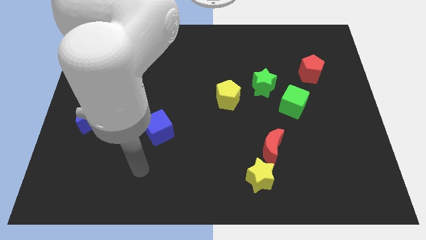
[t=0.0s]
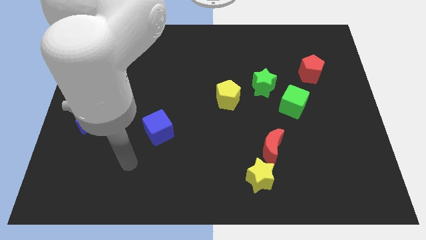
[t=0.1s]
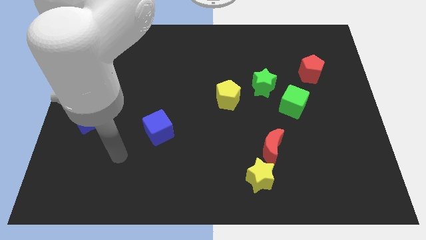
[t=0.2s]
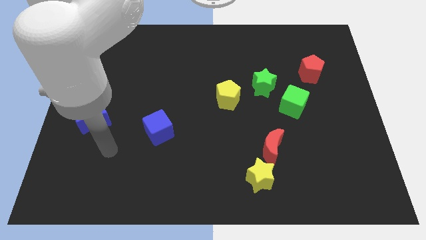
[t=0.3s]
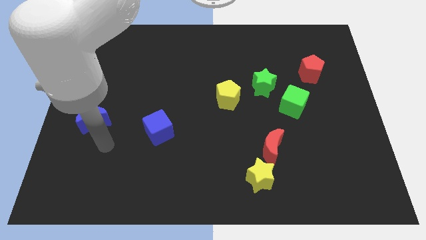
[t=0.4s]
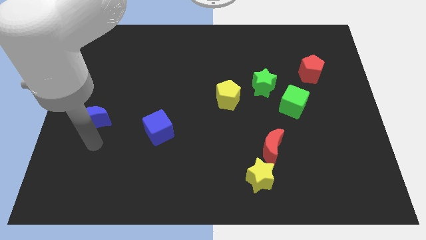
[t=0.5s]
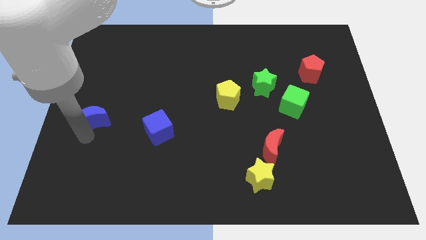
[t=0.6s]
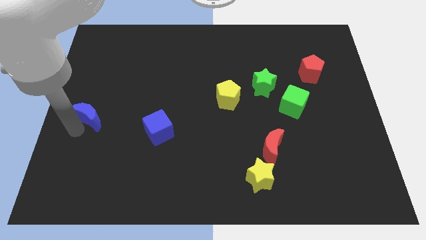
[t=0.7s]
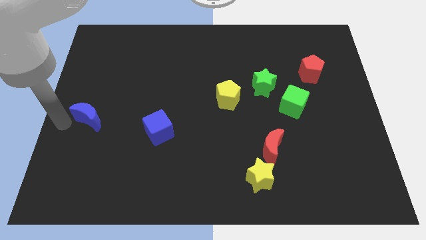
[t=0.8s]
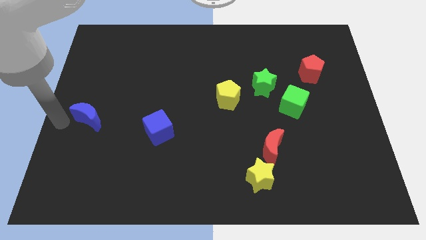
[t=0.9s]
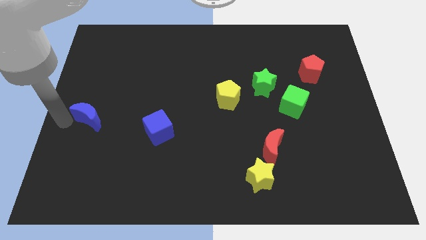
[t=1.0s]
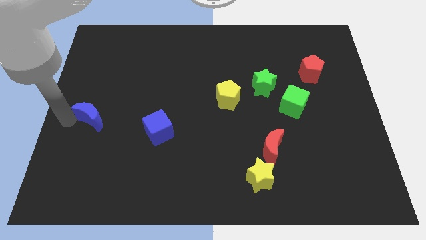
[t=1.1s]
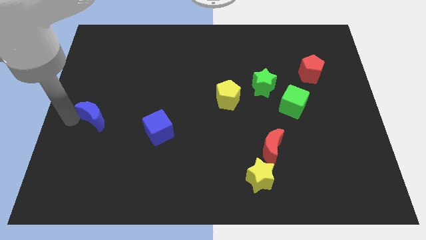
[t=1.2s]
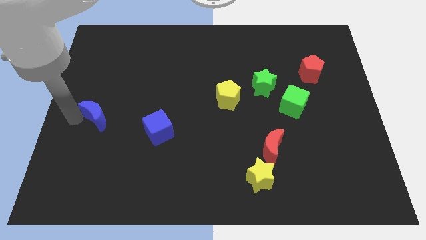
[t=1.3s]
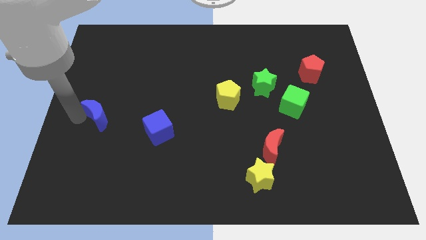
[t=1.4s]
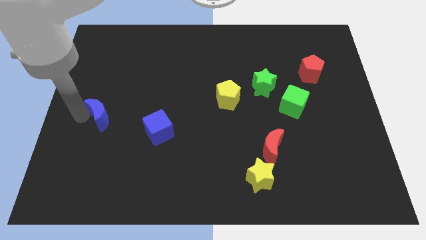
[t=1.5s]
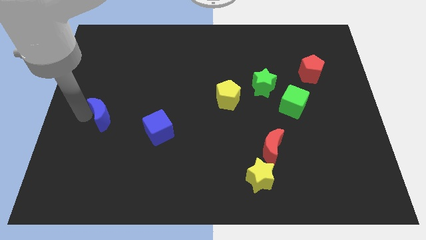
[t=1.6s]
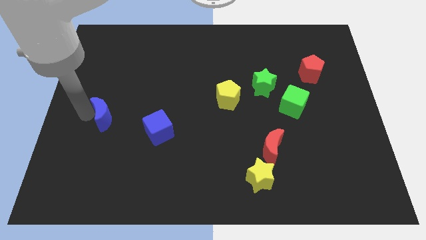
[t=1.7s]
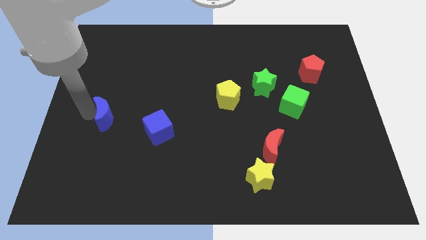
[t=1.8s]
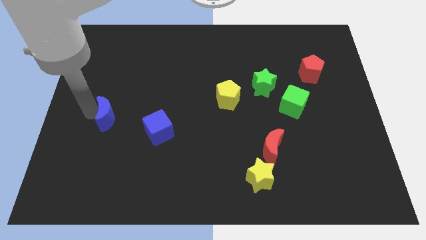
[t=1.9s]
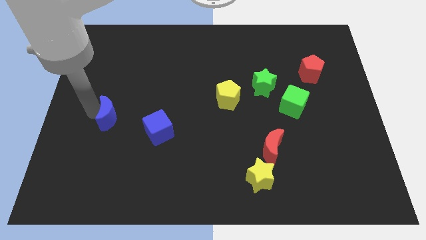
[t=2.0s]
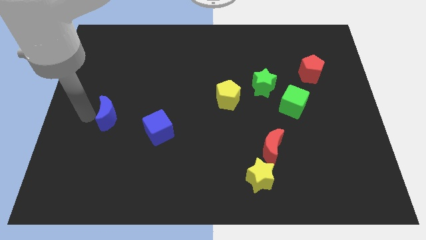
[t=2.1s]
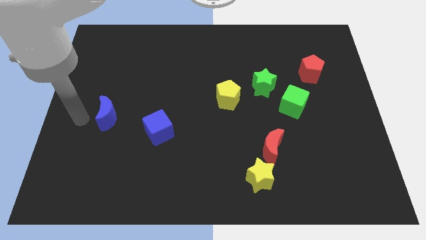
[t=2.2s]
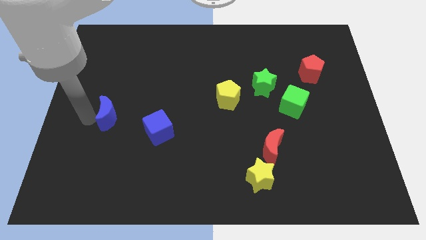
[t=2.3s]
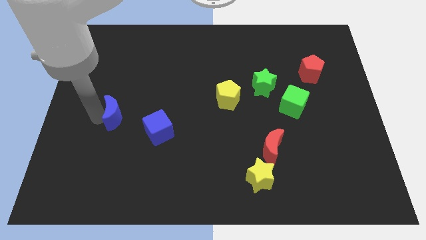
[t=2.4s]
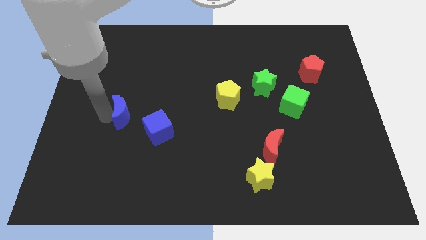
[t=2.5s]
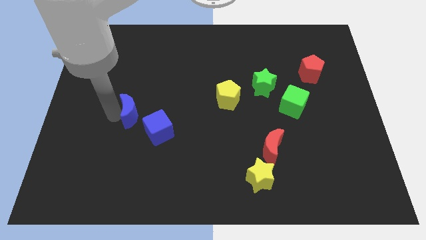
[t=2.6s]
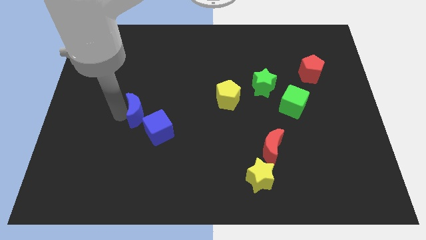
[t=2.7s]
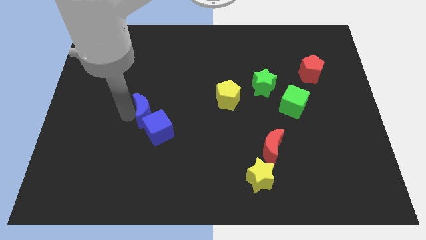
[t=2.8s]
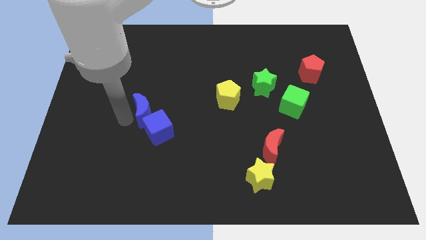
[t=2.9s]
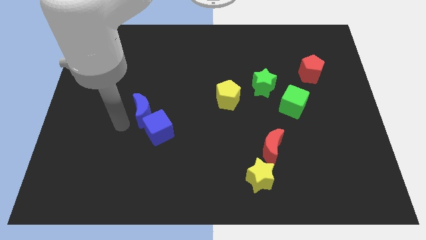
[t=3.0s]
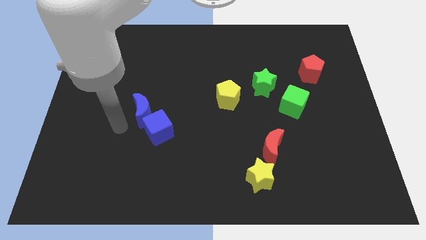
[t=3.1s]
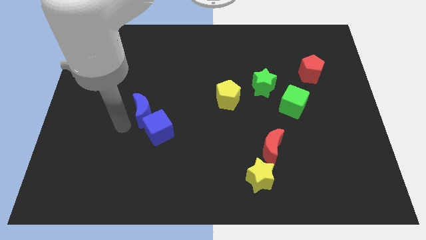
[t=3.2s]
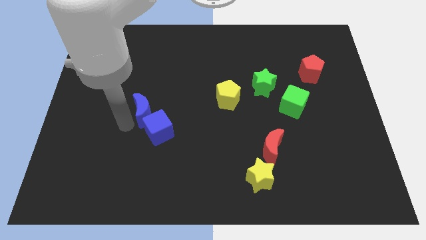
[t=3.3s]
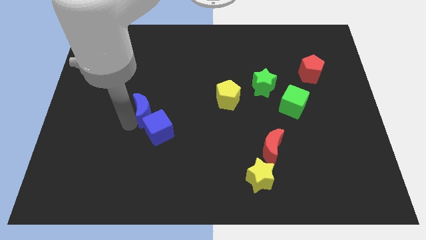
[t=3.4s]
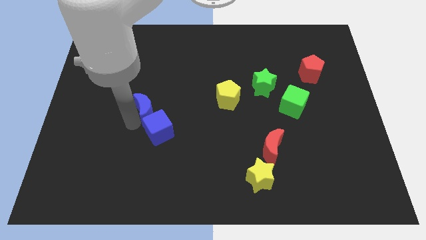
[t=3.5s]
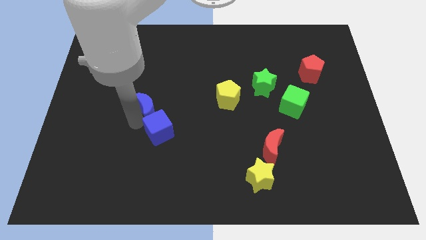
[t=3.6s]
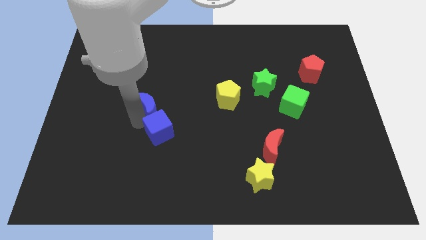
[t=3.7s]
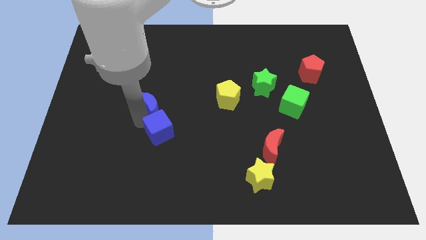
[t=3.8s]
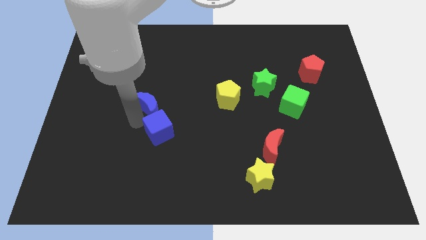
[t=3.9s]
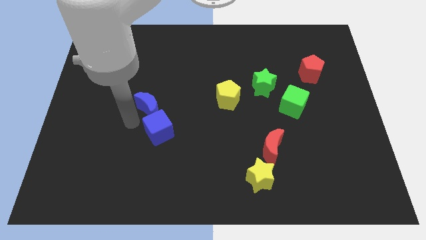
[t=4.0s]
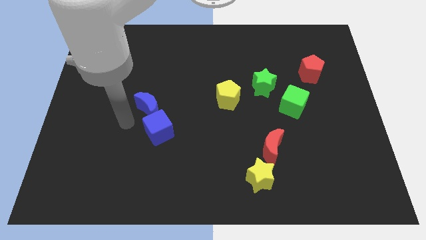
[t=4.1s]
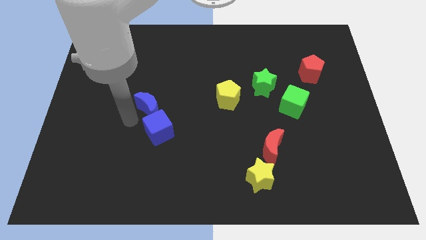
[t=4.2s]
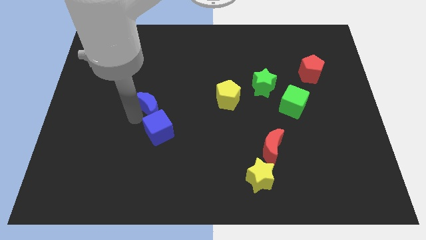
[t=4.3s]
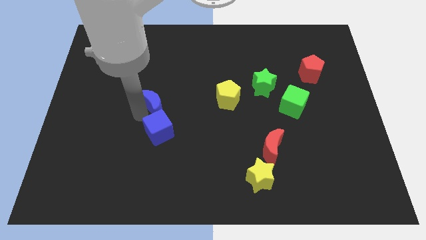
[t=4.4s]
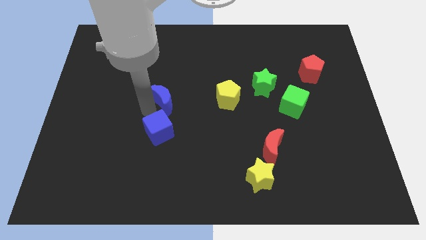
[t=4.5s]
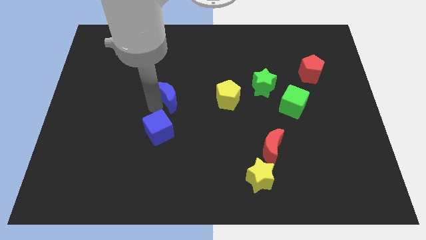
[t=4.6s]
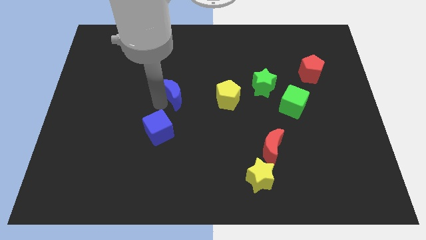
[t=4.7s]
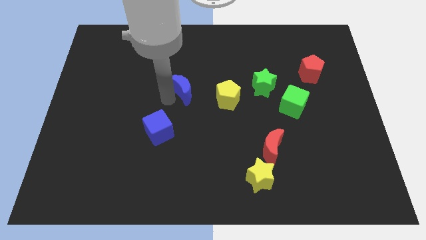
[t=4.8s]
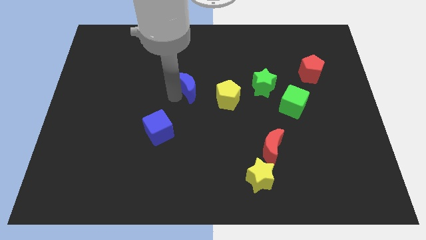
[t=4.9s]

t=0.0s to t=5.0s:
move the blue moon to the top left of the yellow pentagon

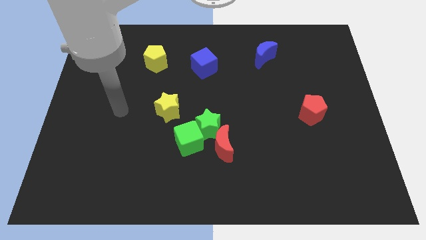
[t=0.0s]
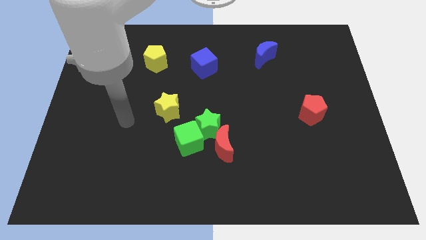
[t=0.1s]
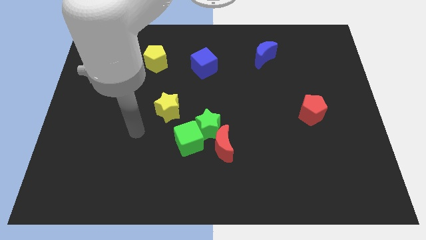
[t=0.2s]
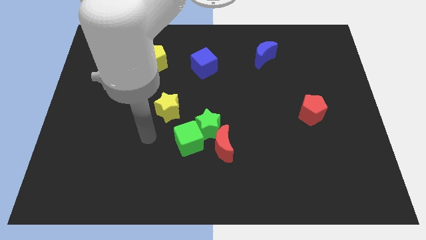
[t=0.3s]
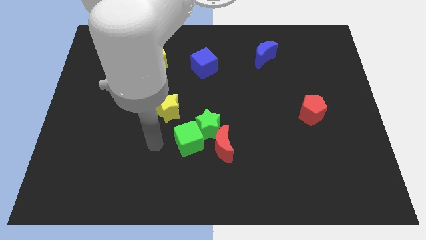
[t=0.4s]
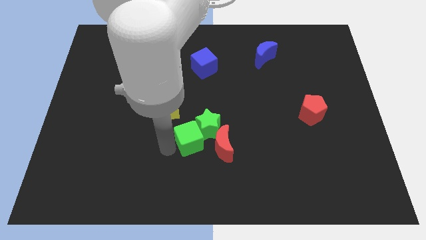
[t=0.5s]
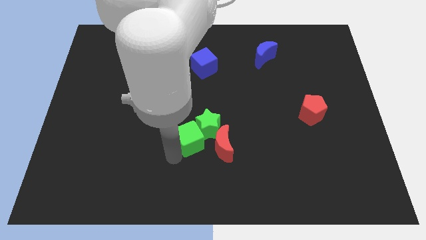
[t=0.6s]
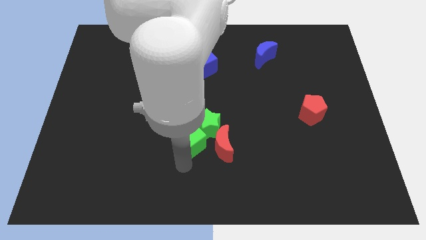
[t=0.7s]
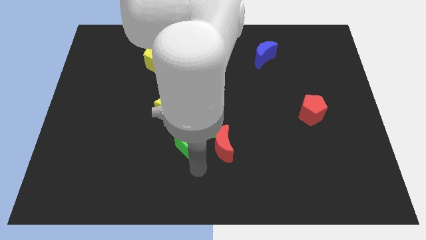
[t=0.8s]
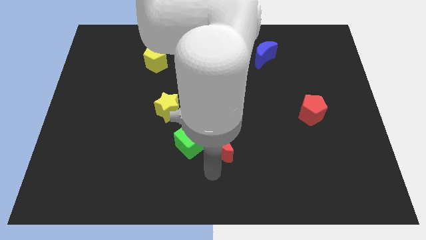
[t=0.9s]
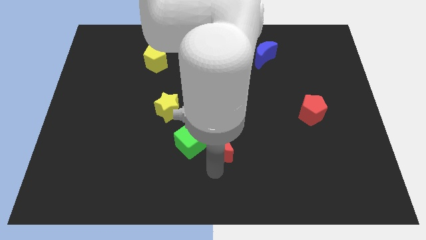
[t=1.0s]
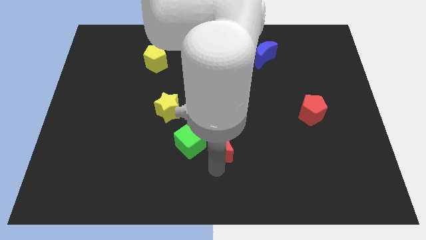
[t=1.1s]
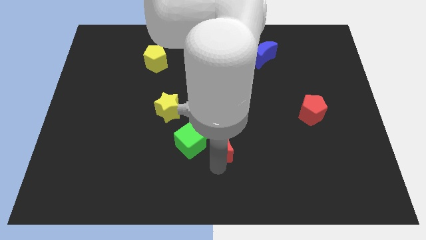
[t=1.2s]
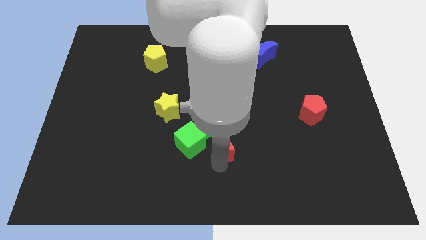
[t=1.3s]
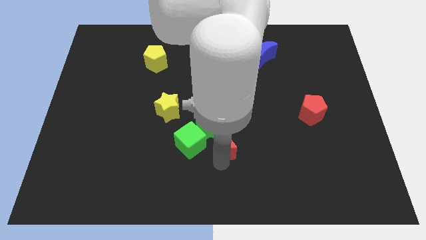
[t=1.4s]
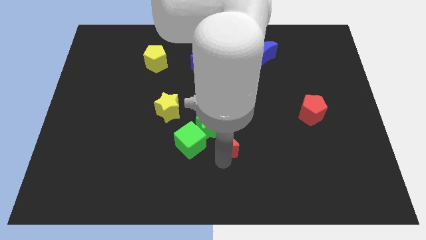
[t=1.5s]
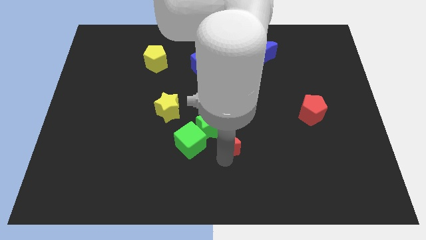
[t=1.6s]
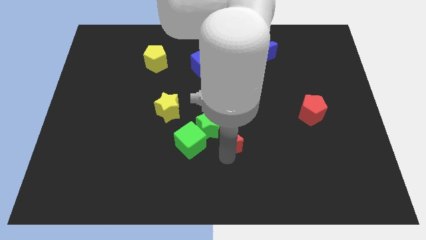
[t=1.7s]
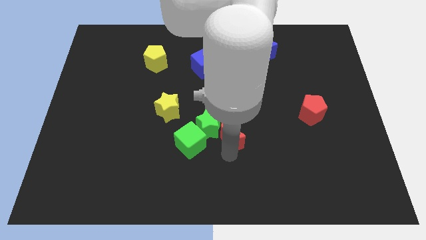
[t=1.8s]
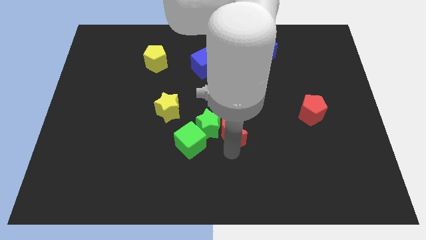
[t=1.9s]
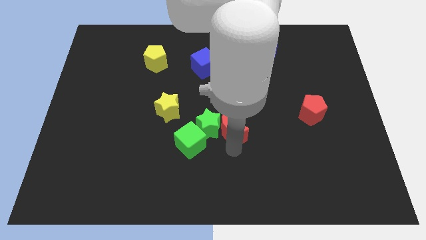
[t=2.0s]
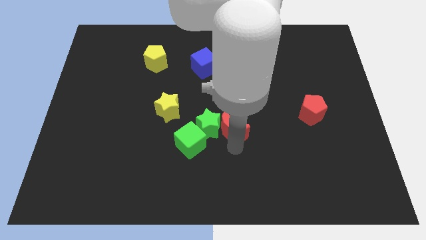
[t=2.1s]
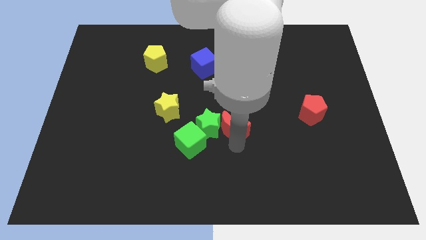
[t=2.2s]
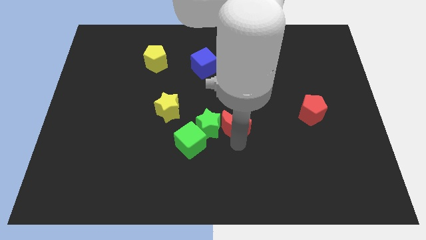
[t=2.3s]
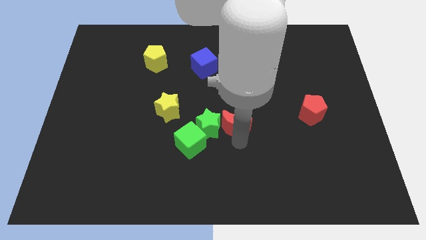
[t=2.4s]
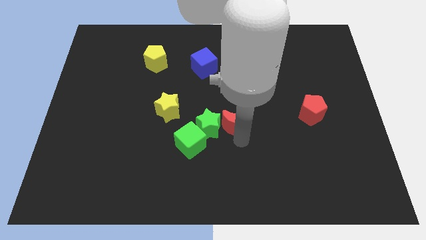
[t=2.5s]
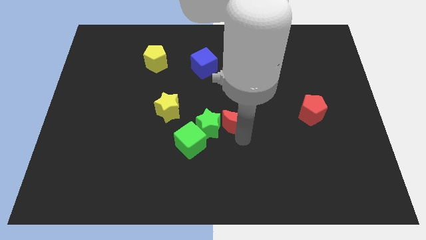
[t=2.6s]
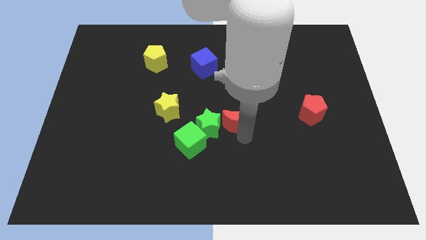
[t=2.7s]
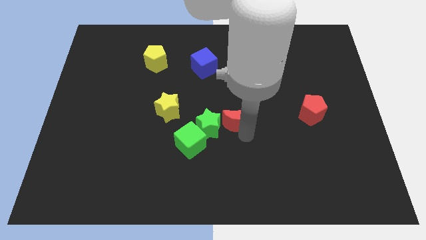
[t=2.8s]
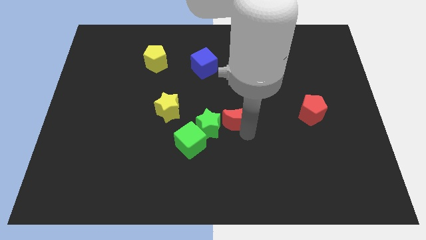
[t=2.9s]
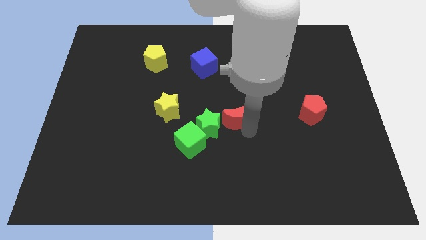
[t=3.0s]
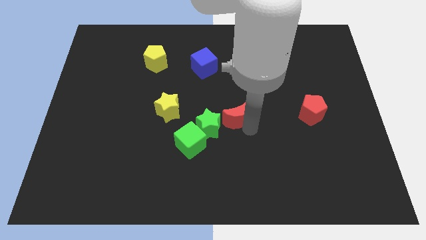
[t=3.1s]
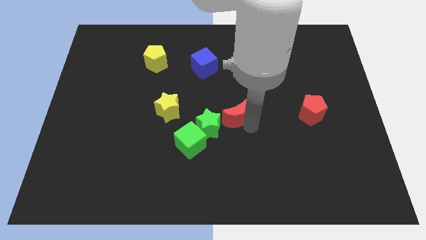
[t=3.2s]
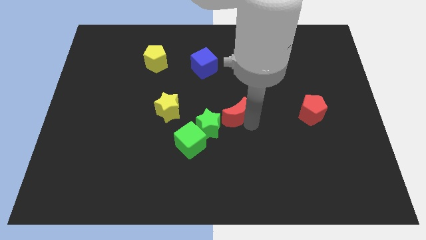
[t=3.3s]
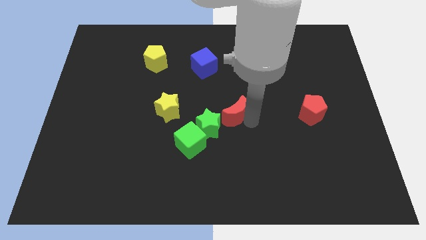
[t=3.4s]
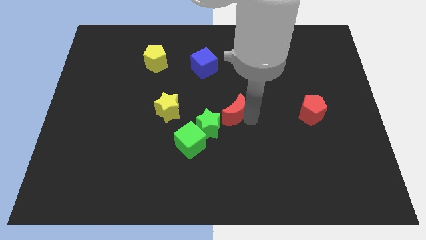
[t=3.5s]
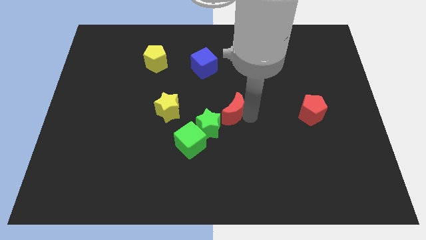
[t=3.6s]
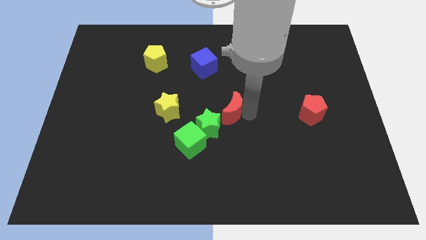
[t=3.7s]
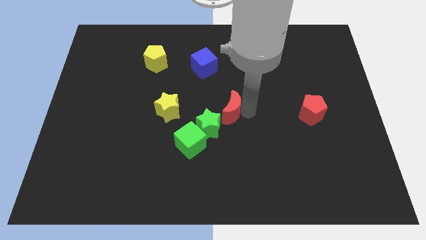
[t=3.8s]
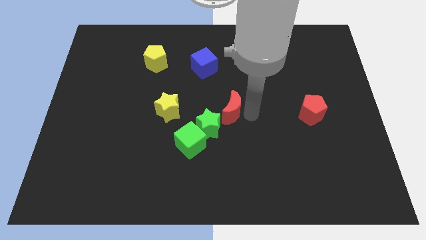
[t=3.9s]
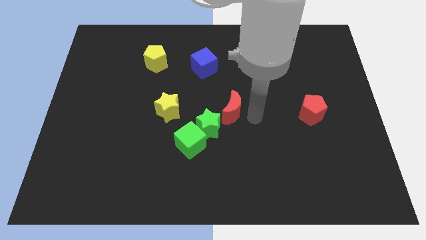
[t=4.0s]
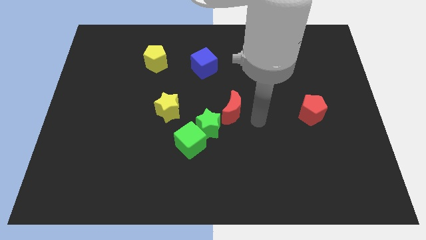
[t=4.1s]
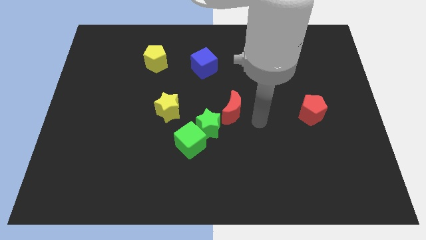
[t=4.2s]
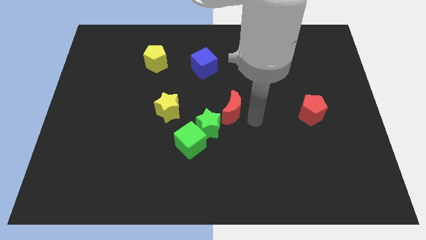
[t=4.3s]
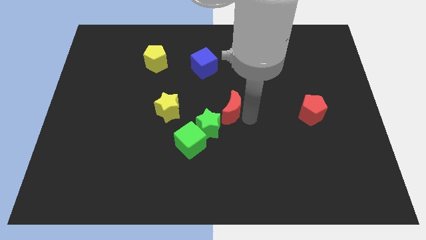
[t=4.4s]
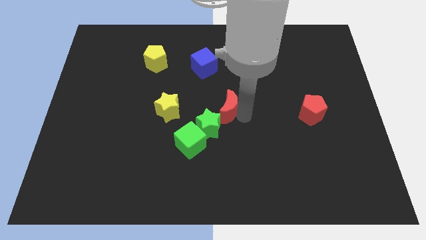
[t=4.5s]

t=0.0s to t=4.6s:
put the red moon above the green star
